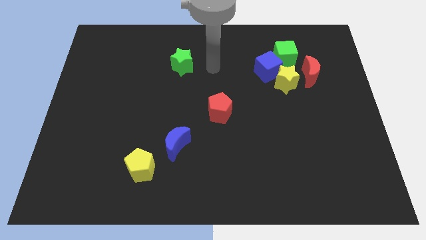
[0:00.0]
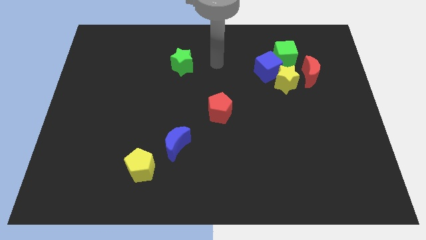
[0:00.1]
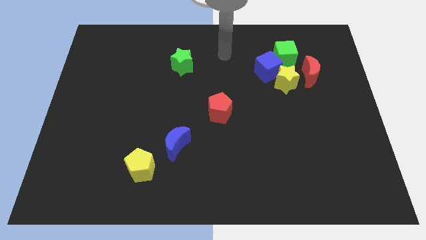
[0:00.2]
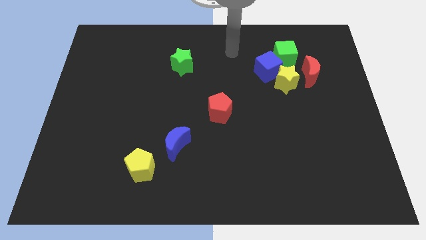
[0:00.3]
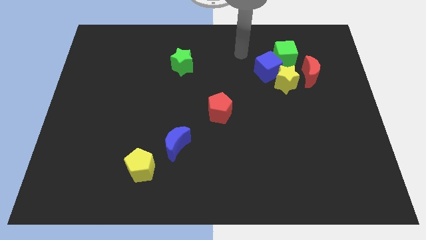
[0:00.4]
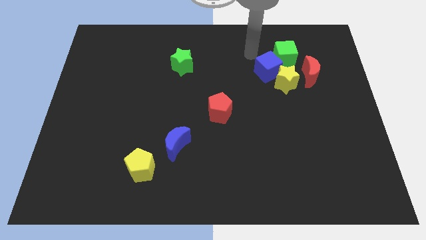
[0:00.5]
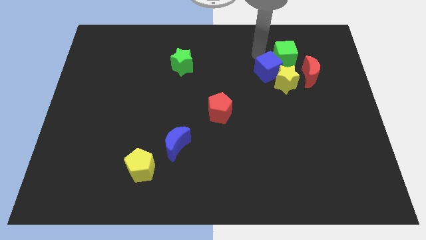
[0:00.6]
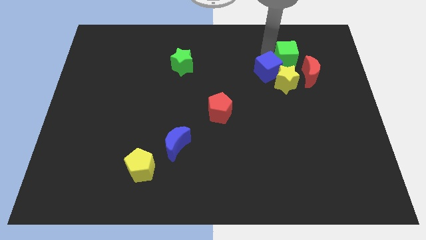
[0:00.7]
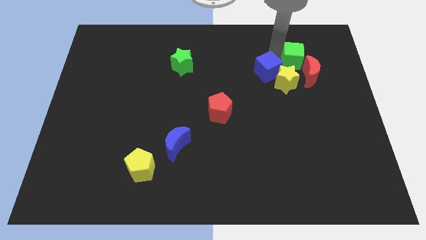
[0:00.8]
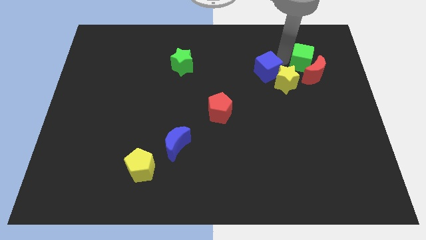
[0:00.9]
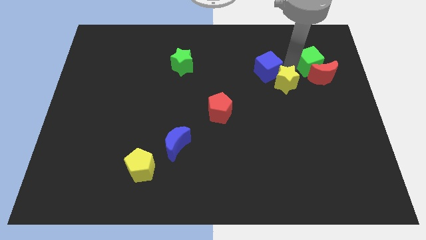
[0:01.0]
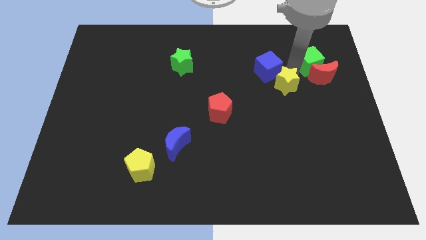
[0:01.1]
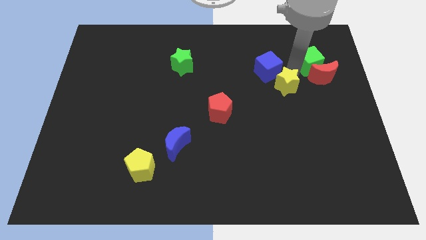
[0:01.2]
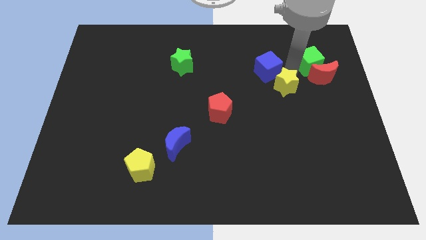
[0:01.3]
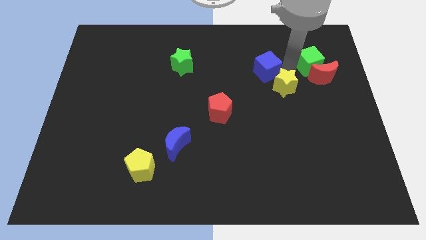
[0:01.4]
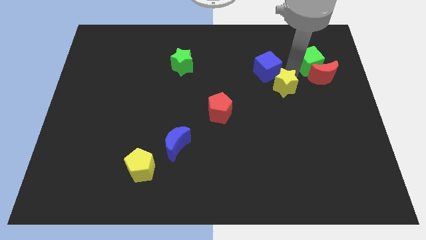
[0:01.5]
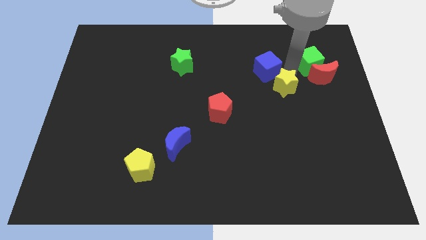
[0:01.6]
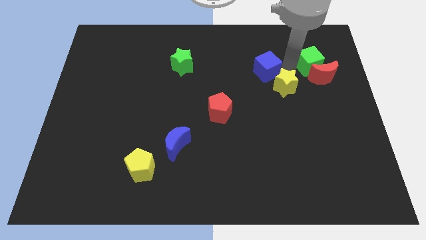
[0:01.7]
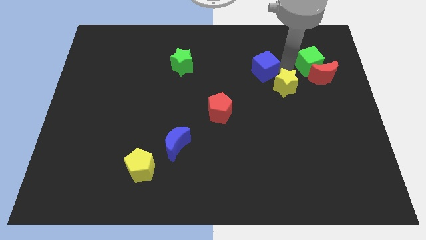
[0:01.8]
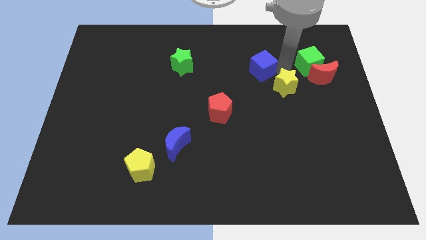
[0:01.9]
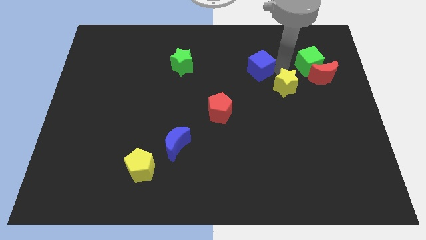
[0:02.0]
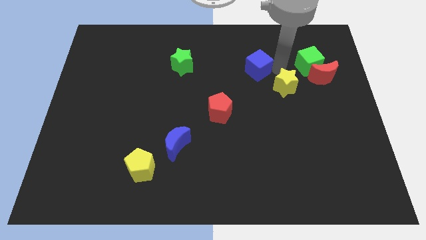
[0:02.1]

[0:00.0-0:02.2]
separate the blue cube from the yellow star and green cube

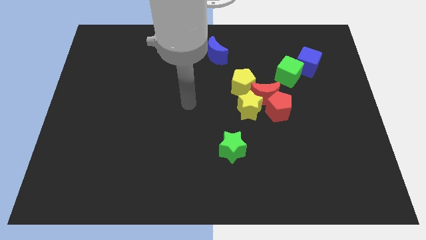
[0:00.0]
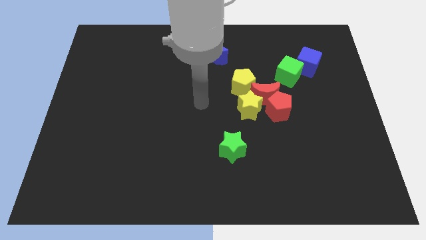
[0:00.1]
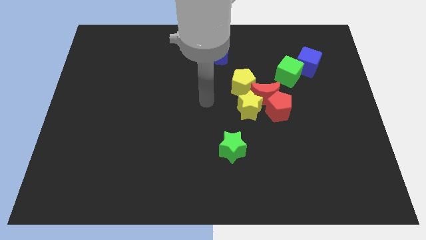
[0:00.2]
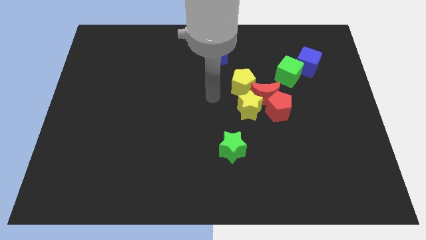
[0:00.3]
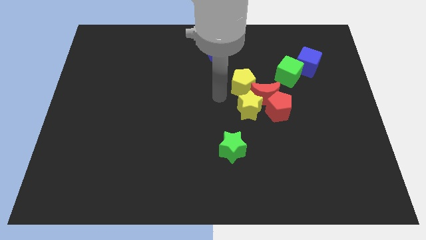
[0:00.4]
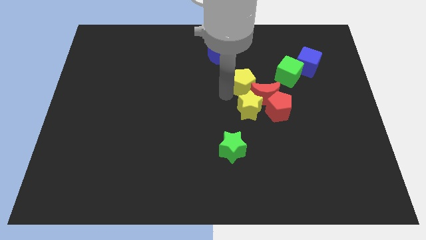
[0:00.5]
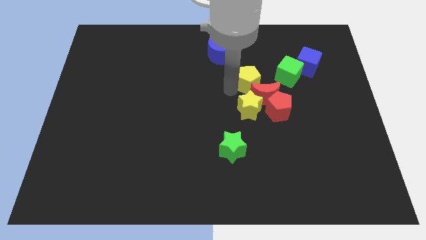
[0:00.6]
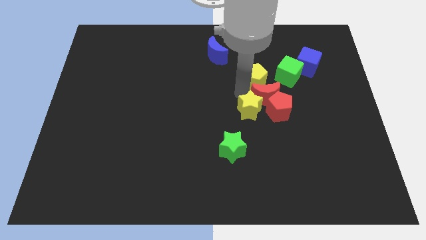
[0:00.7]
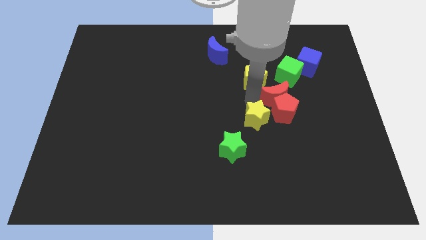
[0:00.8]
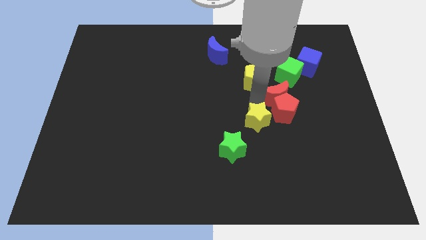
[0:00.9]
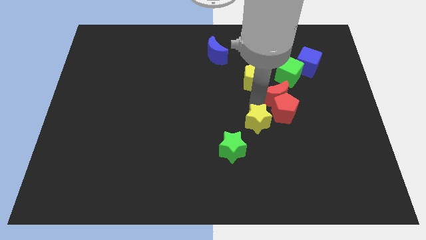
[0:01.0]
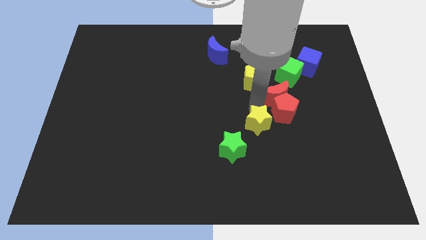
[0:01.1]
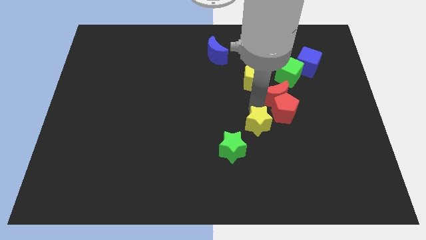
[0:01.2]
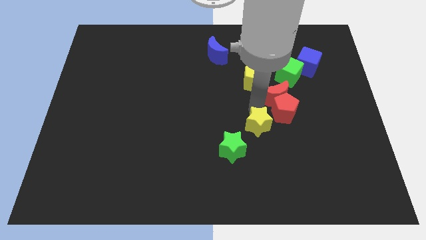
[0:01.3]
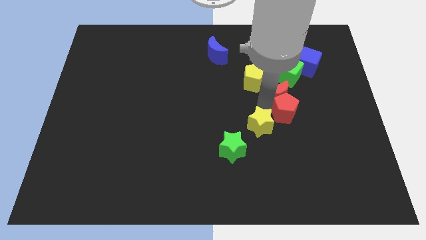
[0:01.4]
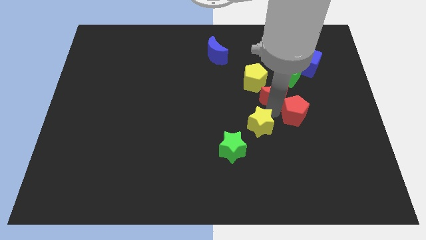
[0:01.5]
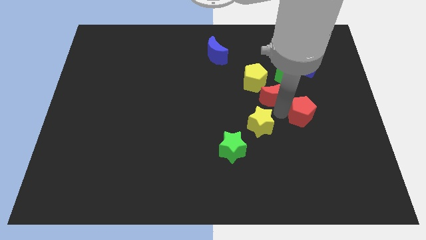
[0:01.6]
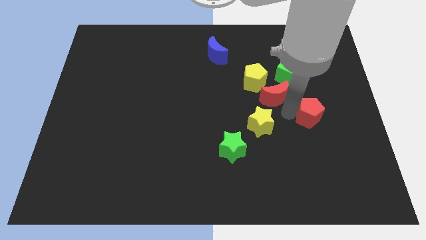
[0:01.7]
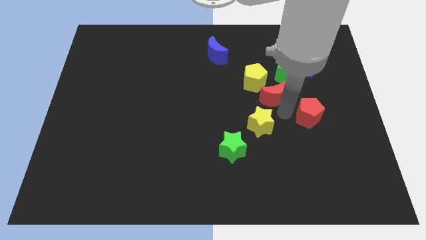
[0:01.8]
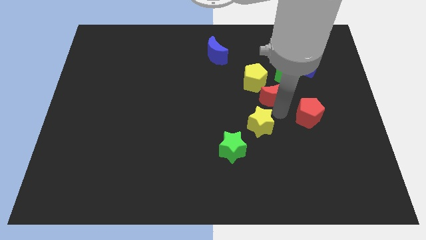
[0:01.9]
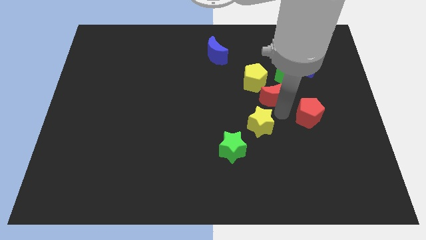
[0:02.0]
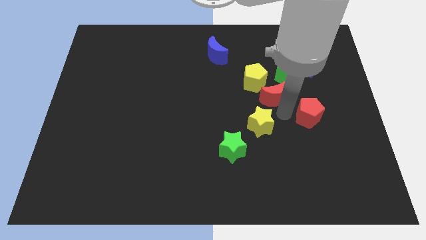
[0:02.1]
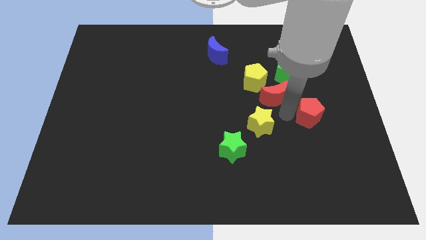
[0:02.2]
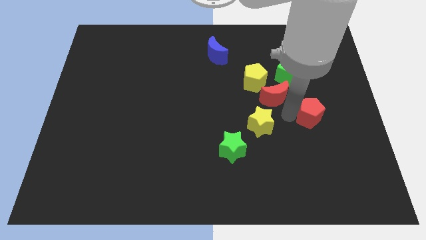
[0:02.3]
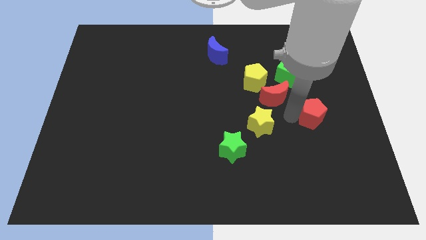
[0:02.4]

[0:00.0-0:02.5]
move the red pentagon away from the red moon and yellow star

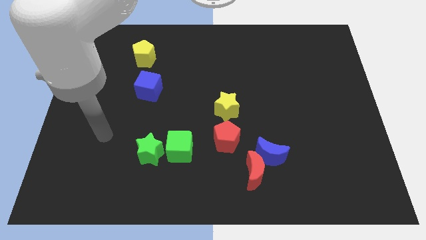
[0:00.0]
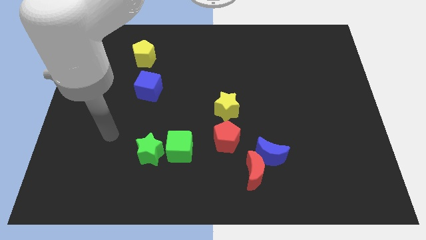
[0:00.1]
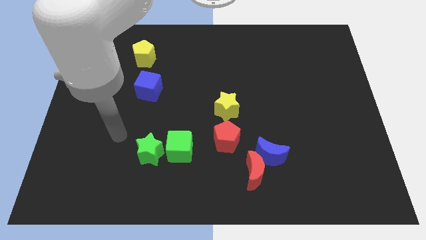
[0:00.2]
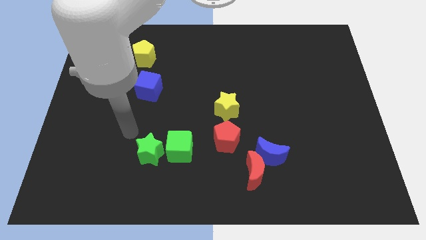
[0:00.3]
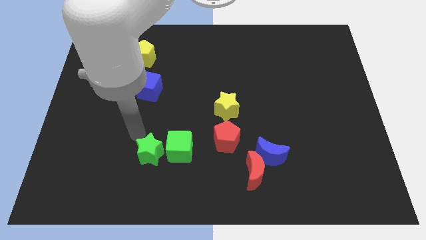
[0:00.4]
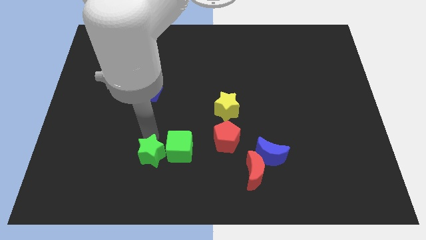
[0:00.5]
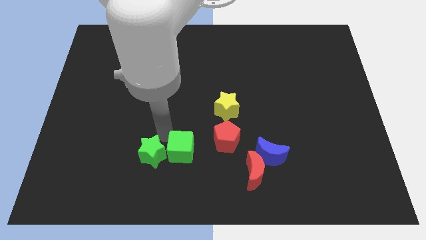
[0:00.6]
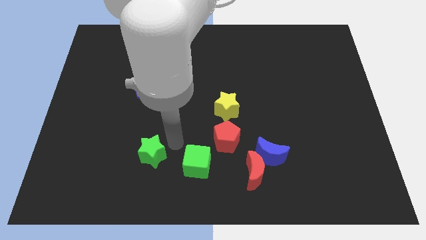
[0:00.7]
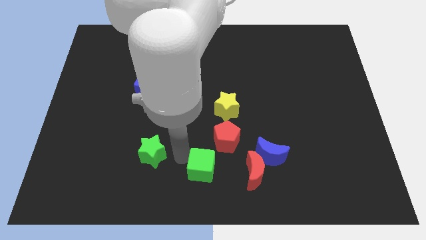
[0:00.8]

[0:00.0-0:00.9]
separate the green star from the green cube

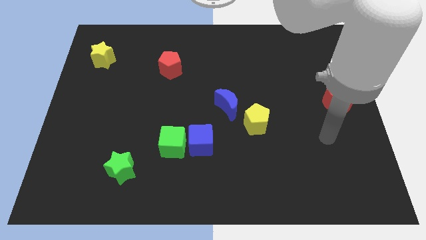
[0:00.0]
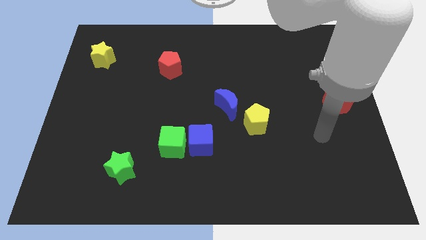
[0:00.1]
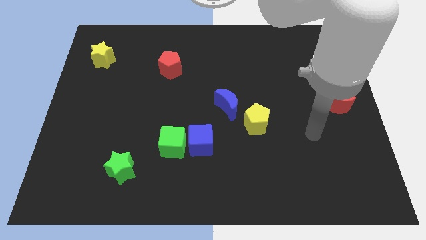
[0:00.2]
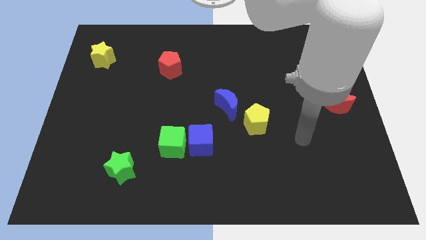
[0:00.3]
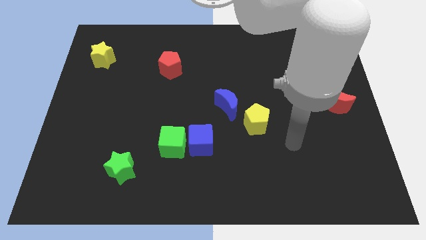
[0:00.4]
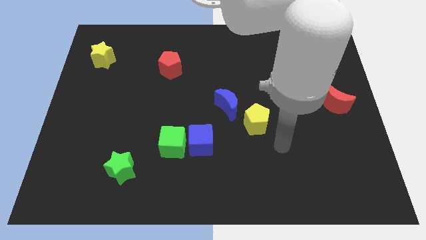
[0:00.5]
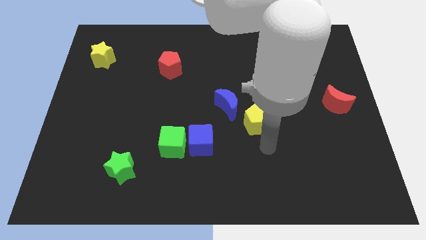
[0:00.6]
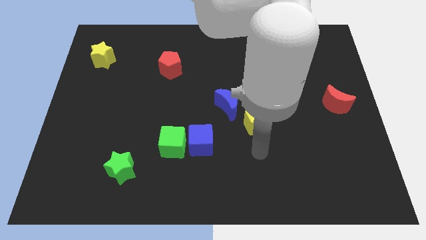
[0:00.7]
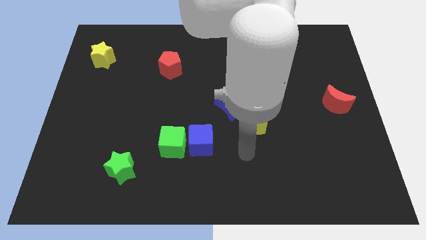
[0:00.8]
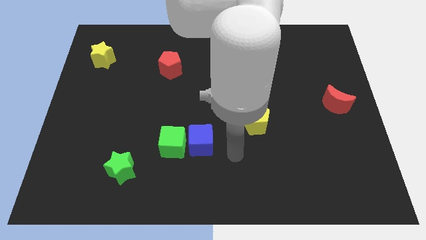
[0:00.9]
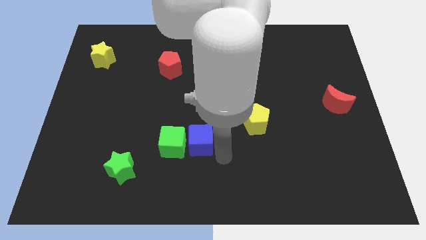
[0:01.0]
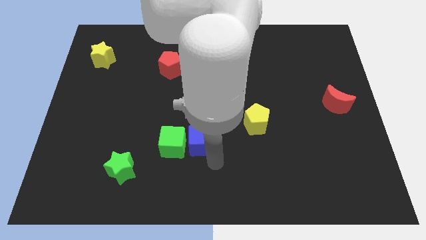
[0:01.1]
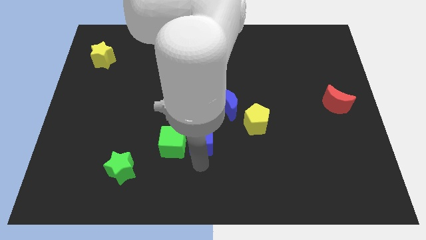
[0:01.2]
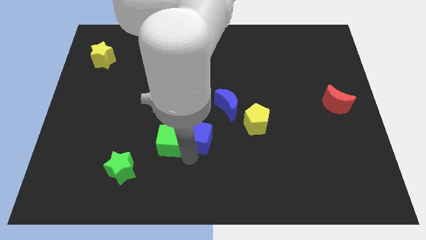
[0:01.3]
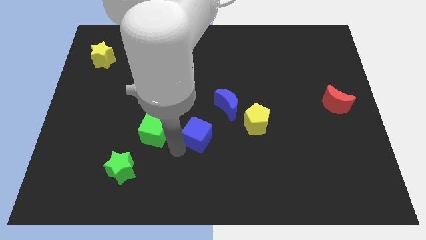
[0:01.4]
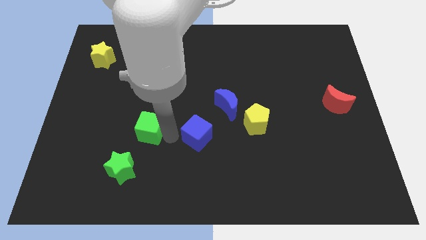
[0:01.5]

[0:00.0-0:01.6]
move the blue cube away from the green cube

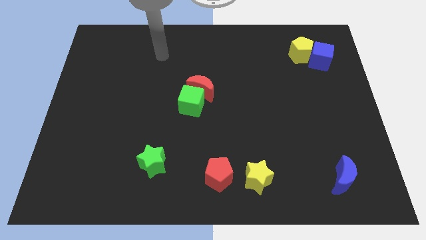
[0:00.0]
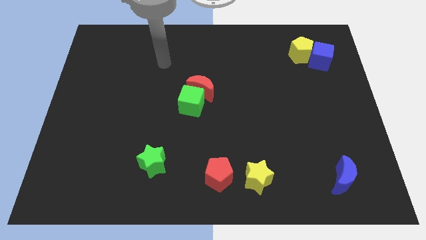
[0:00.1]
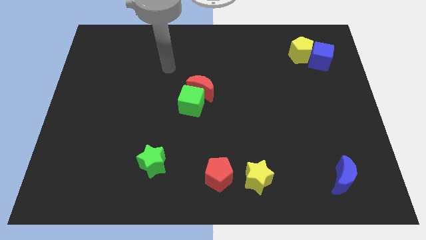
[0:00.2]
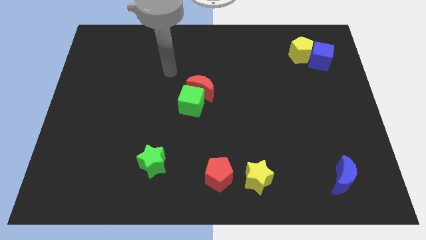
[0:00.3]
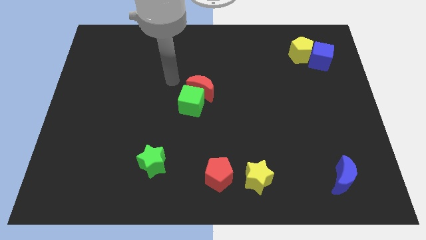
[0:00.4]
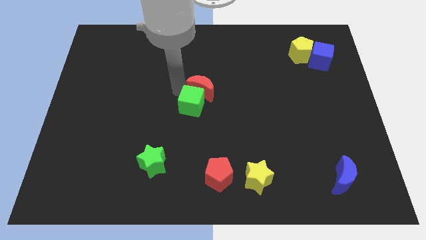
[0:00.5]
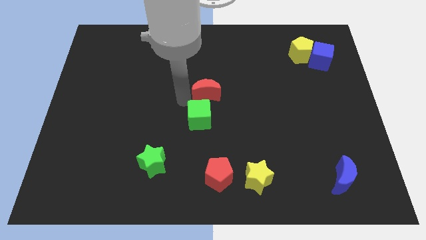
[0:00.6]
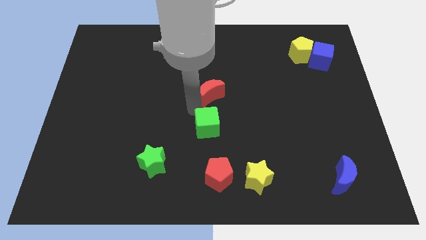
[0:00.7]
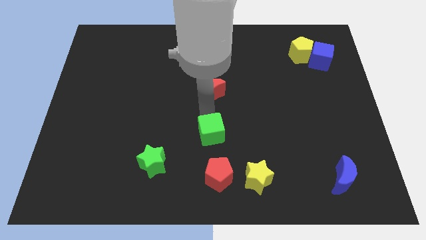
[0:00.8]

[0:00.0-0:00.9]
separate the red moon from the green cube

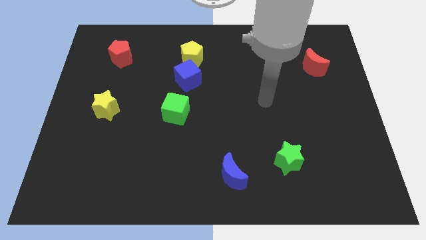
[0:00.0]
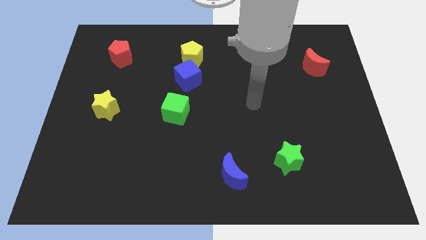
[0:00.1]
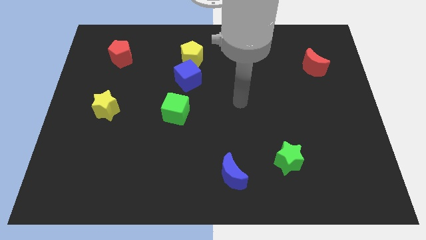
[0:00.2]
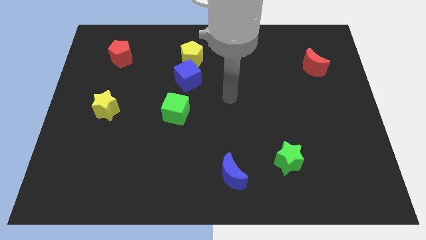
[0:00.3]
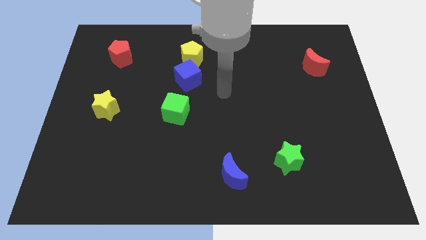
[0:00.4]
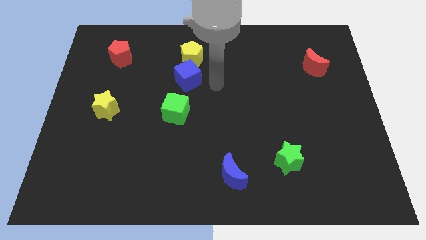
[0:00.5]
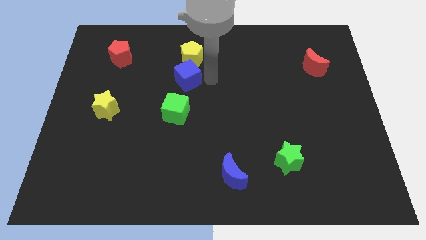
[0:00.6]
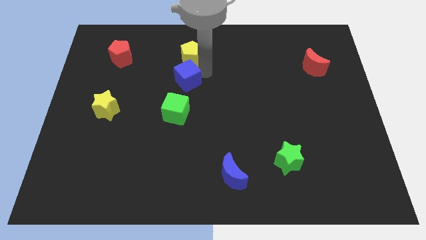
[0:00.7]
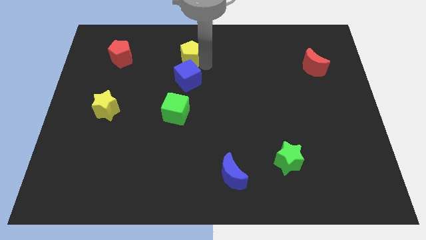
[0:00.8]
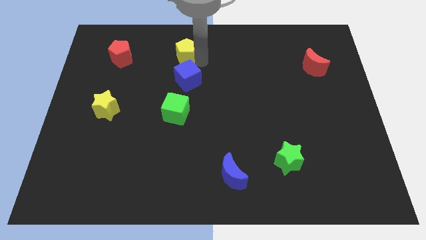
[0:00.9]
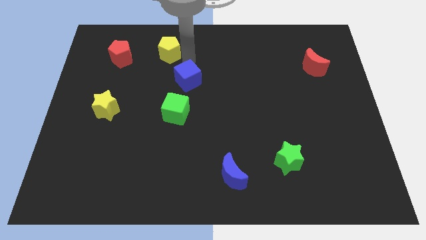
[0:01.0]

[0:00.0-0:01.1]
pull the blue cube apart from the yellow pentagon

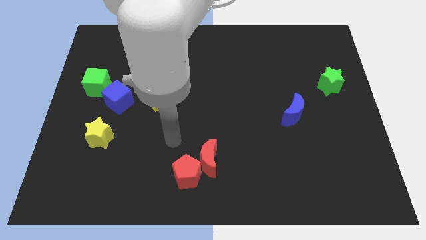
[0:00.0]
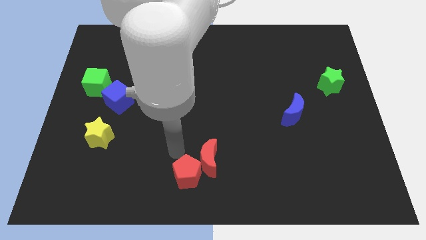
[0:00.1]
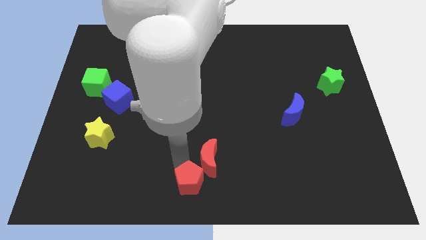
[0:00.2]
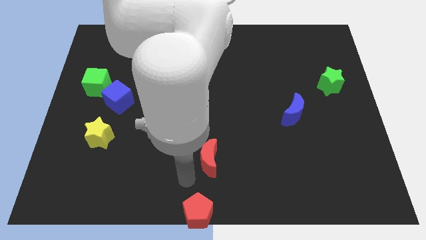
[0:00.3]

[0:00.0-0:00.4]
separate the red moon from the red pentagon
